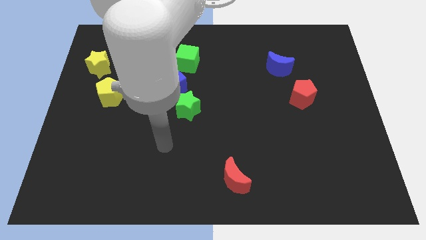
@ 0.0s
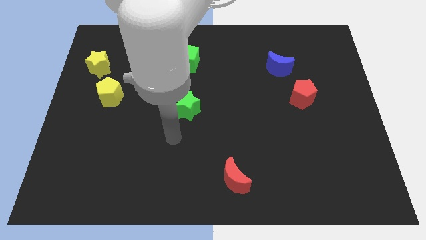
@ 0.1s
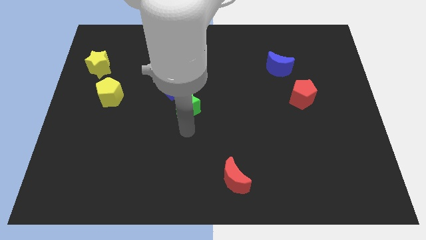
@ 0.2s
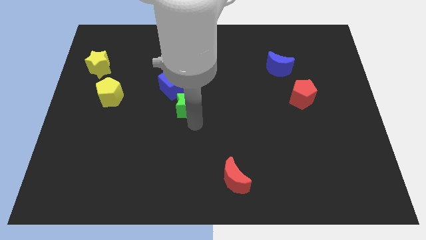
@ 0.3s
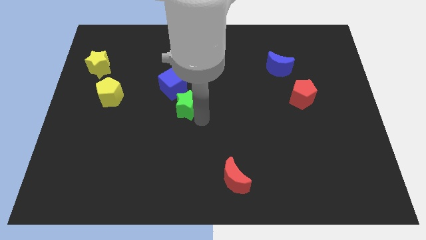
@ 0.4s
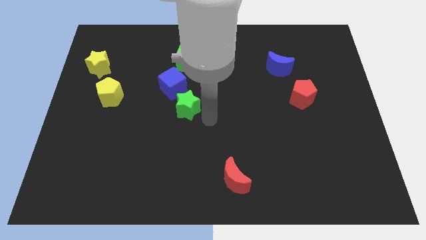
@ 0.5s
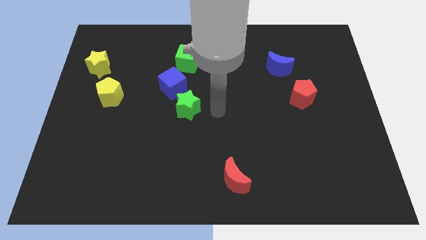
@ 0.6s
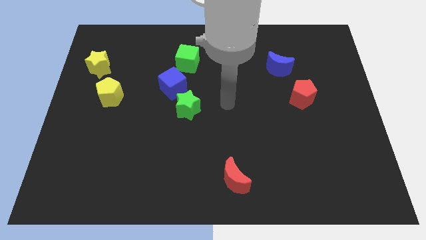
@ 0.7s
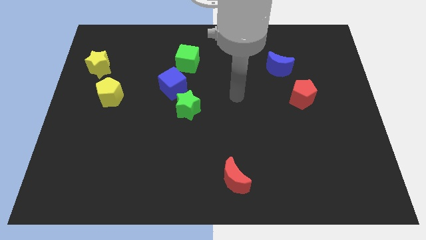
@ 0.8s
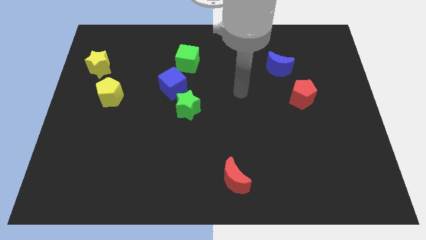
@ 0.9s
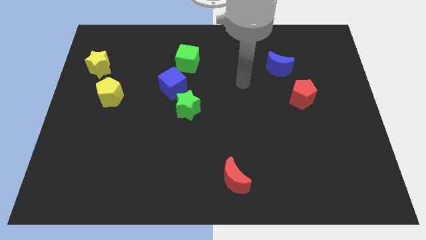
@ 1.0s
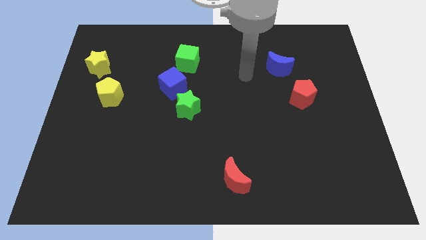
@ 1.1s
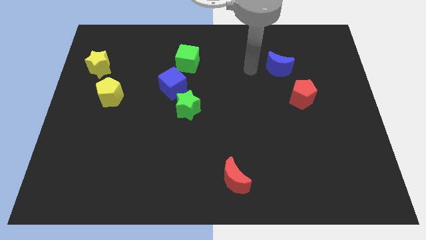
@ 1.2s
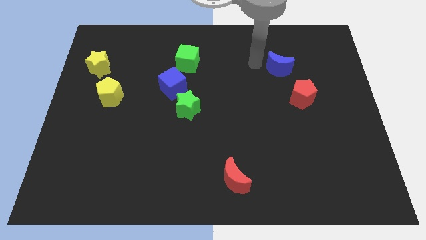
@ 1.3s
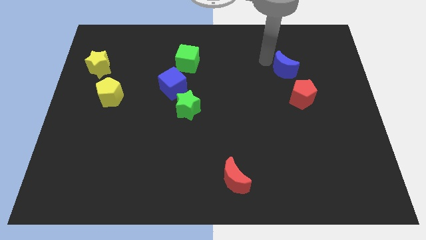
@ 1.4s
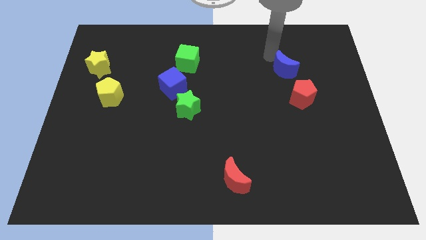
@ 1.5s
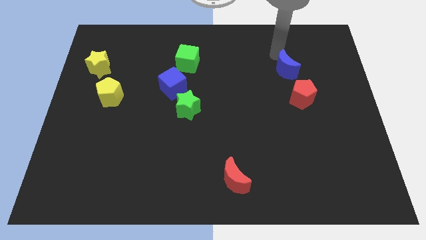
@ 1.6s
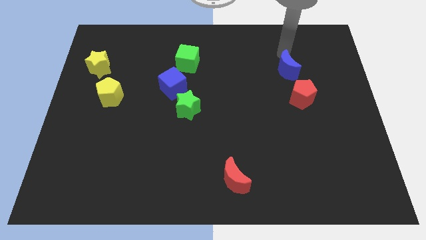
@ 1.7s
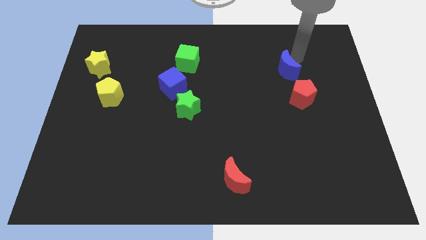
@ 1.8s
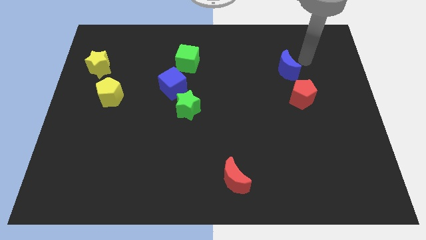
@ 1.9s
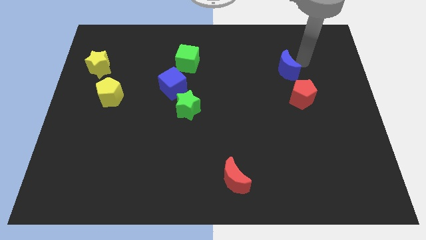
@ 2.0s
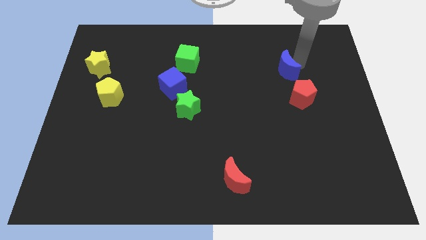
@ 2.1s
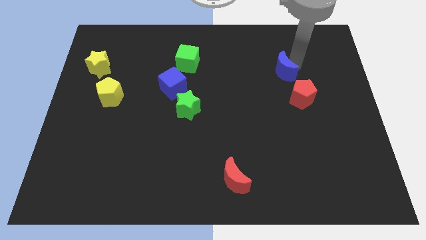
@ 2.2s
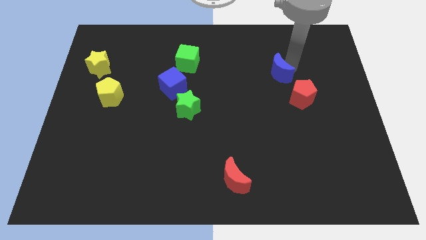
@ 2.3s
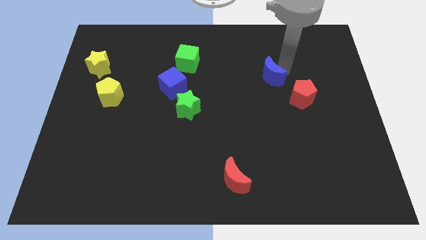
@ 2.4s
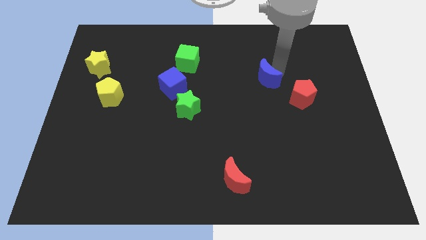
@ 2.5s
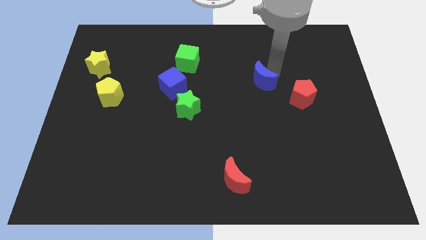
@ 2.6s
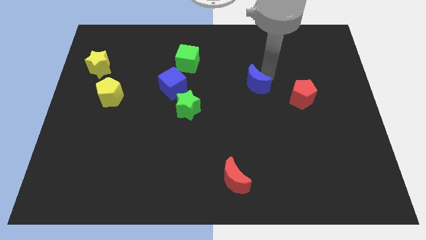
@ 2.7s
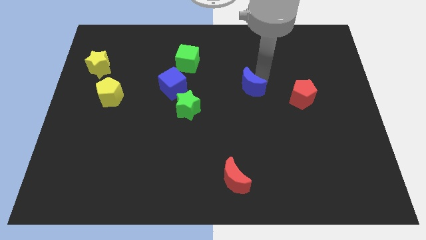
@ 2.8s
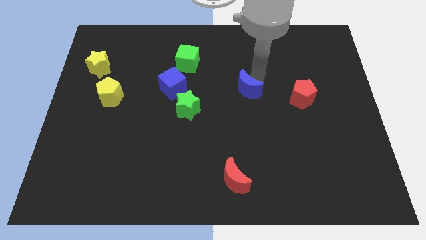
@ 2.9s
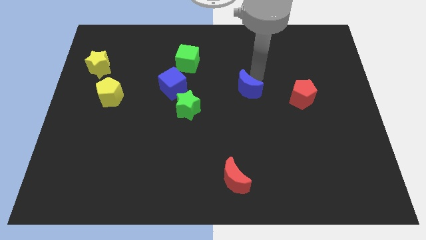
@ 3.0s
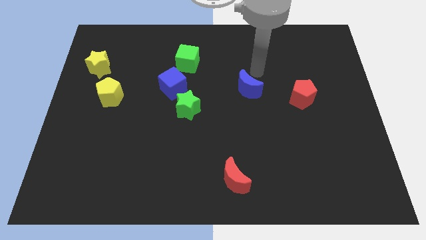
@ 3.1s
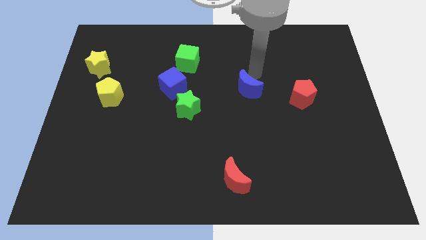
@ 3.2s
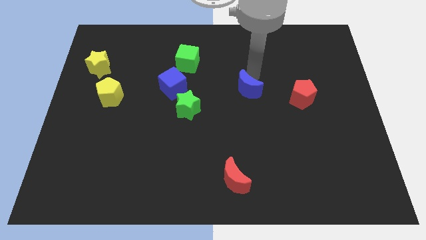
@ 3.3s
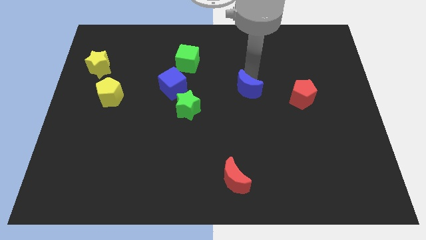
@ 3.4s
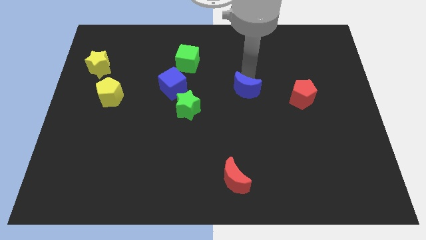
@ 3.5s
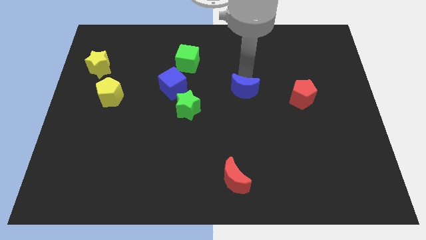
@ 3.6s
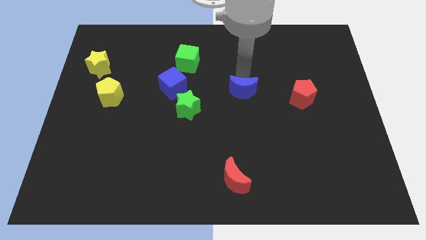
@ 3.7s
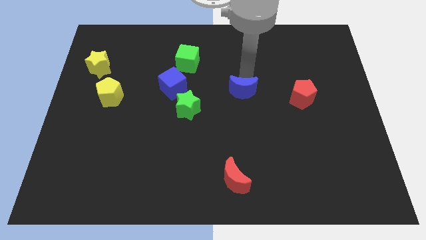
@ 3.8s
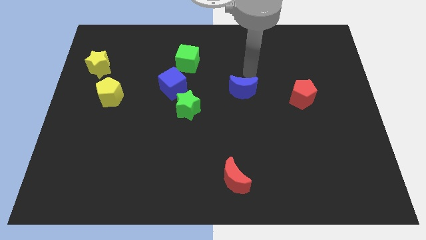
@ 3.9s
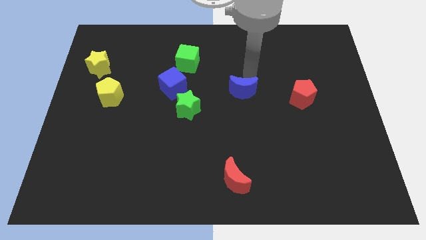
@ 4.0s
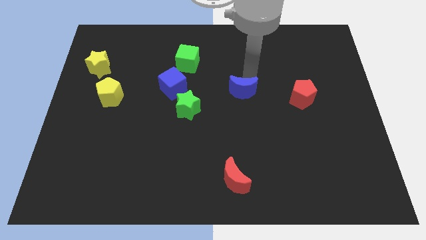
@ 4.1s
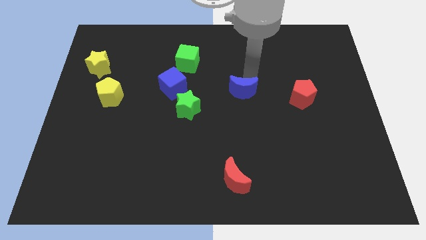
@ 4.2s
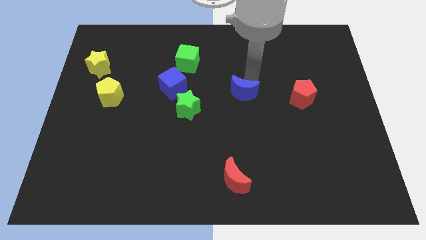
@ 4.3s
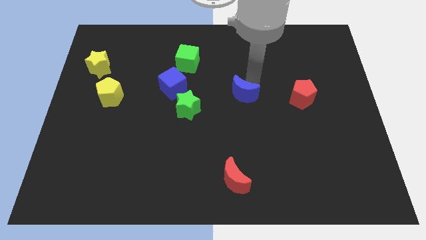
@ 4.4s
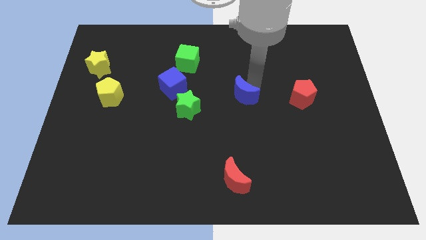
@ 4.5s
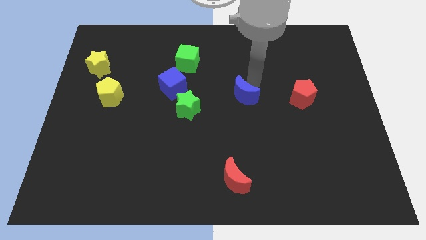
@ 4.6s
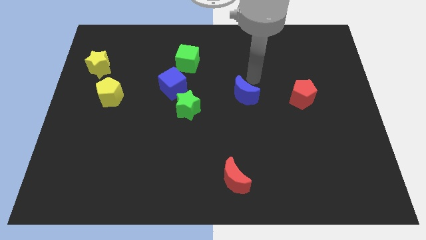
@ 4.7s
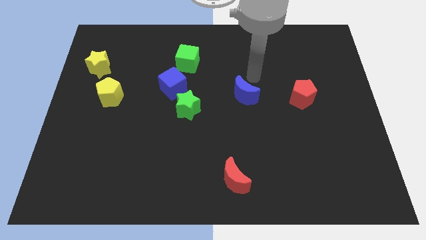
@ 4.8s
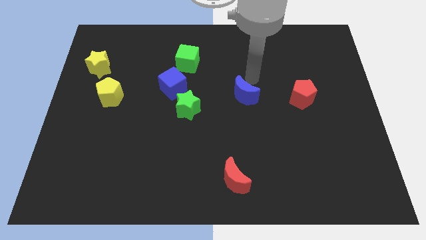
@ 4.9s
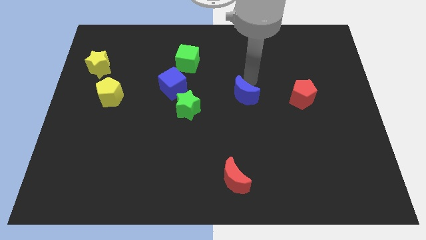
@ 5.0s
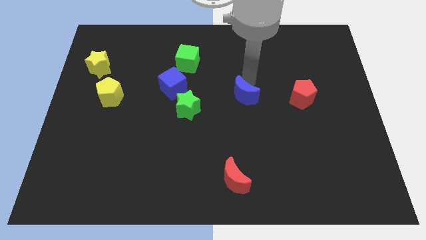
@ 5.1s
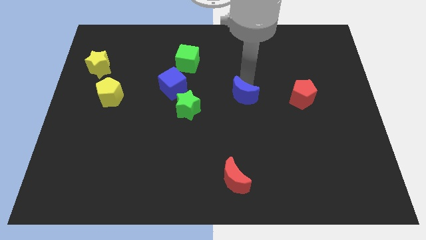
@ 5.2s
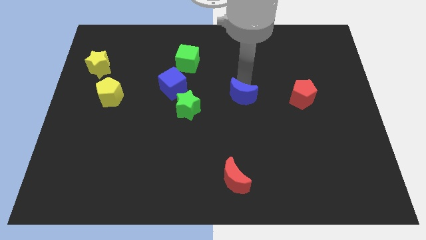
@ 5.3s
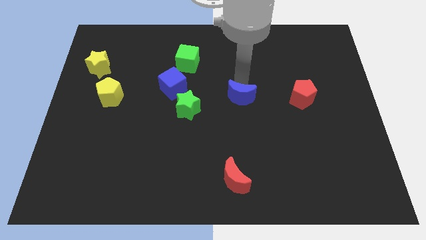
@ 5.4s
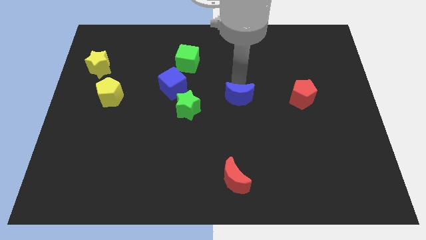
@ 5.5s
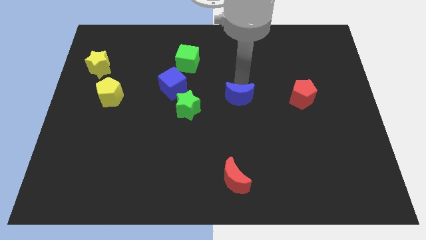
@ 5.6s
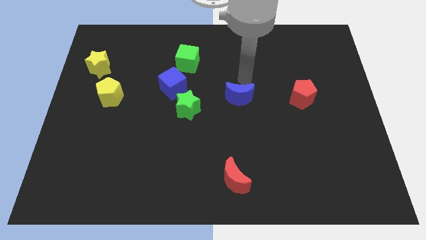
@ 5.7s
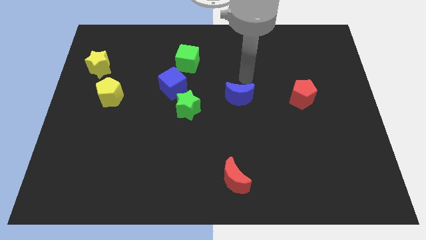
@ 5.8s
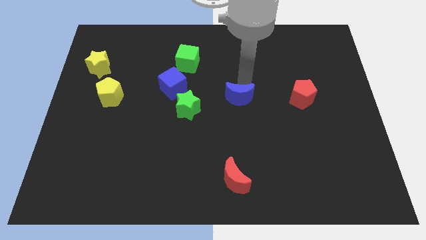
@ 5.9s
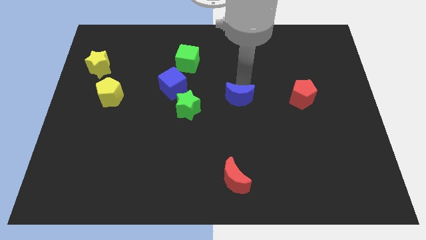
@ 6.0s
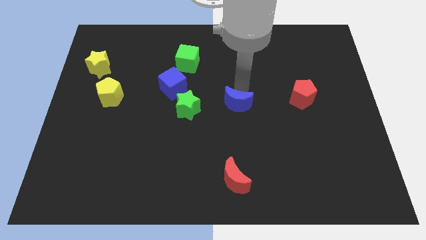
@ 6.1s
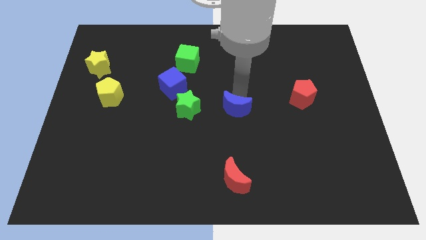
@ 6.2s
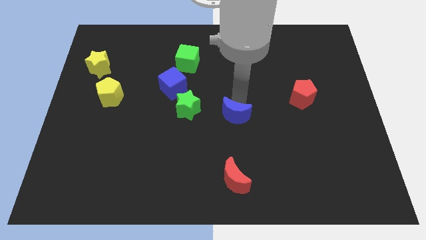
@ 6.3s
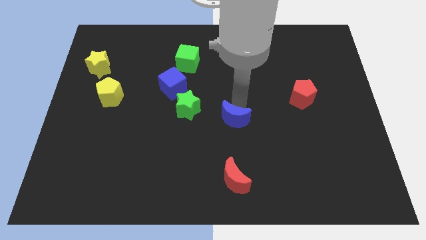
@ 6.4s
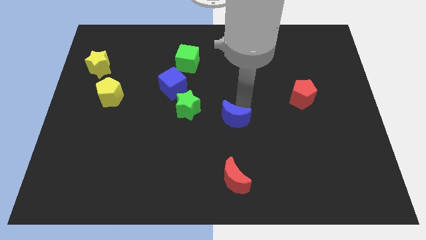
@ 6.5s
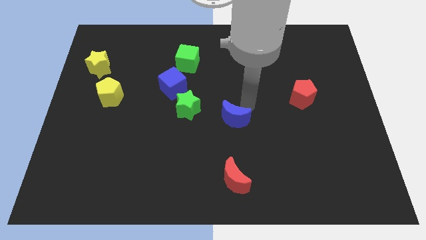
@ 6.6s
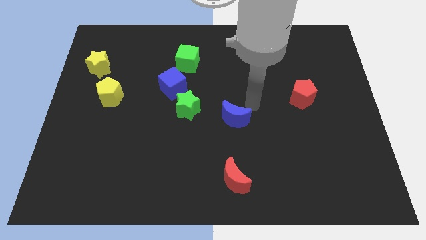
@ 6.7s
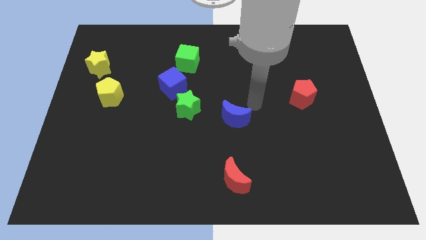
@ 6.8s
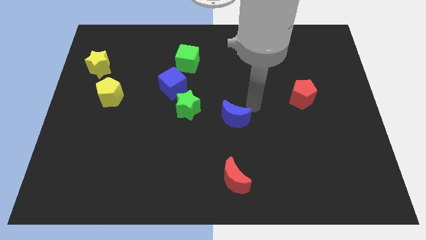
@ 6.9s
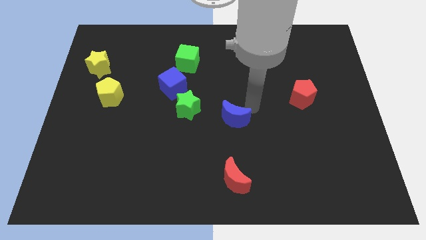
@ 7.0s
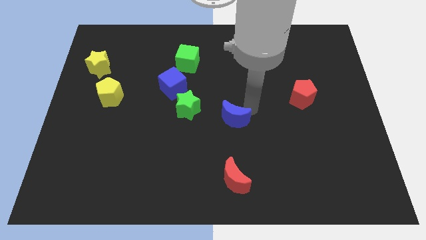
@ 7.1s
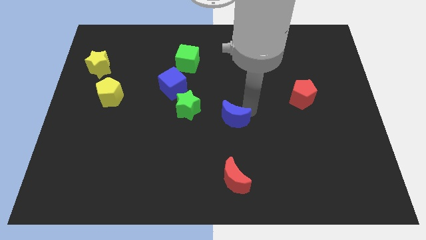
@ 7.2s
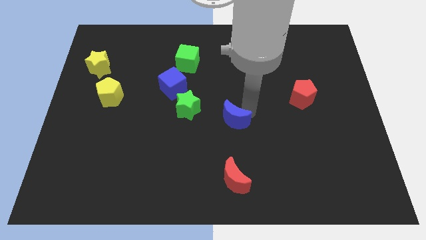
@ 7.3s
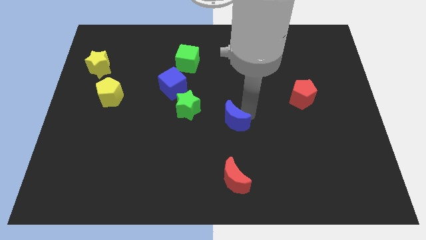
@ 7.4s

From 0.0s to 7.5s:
move the blue moon downwards and to the left diagonally

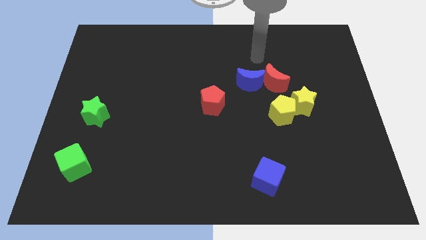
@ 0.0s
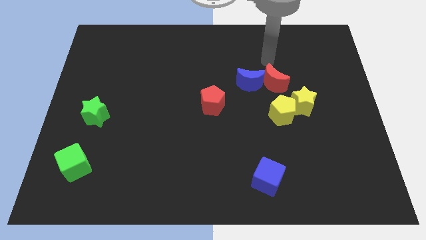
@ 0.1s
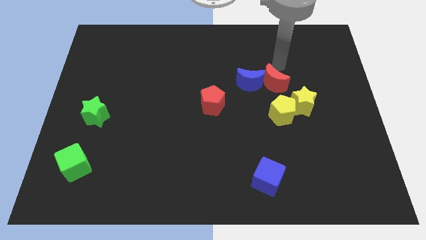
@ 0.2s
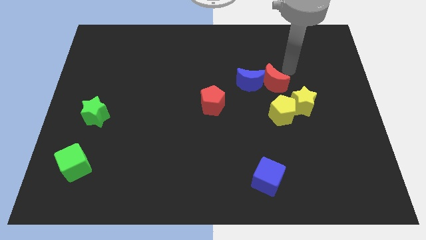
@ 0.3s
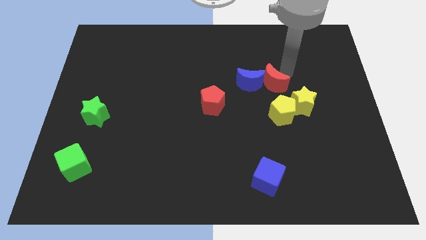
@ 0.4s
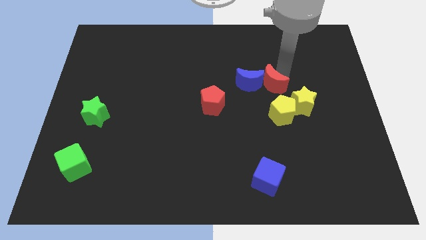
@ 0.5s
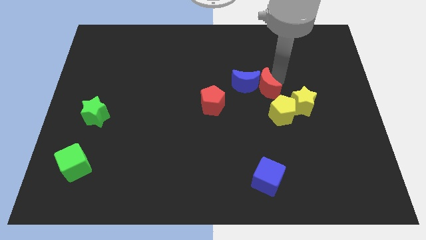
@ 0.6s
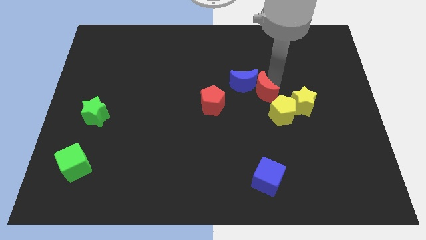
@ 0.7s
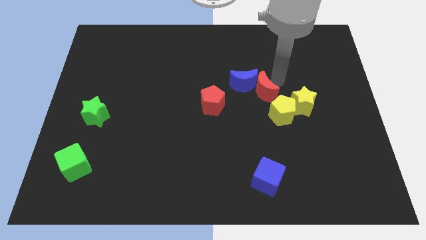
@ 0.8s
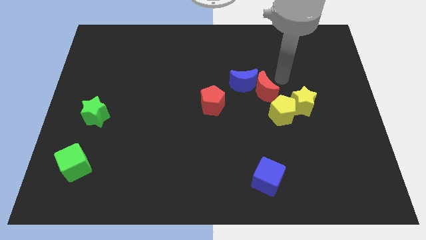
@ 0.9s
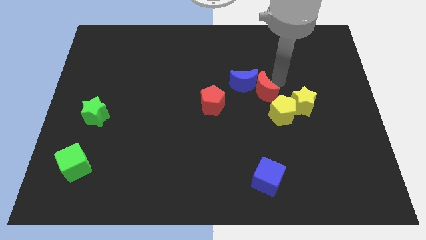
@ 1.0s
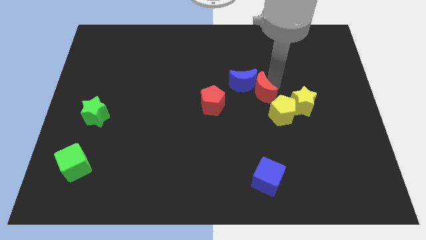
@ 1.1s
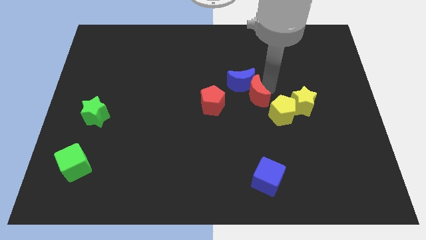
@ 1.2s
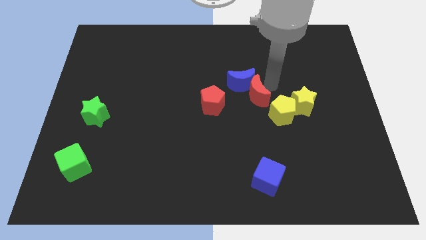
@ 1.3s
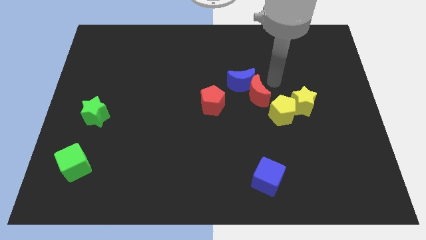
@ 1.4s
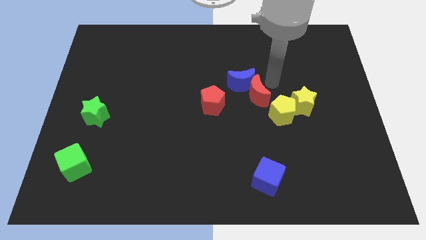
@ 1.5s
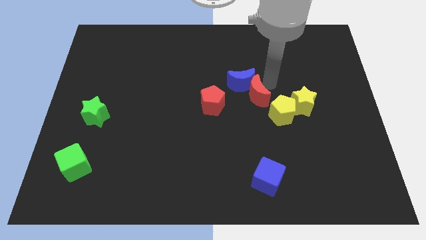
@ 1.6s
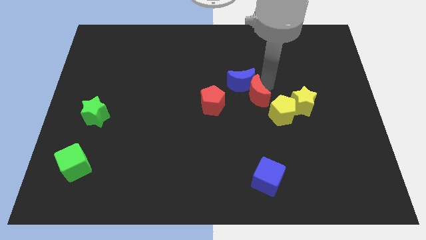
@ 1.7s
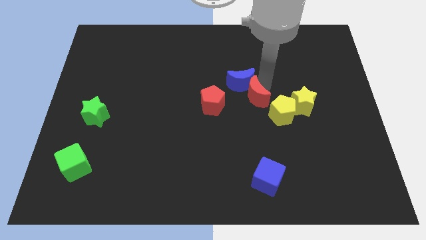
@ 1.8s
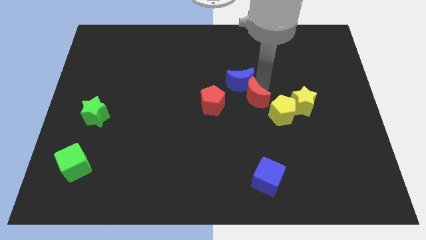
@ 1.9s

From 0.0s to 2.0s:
move the red moon downwards and left diagonally slightly
